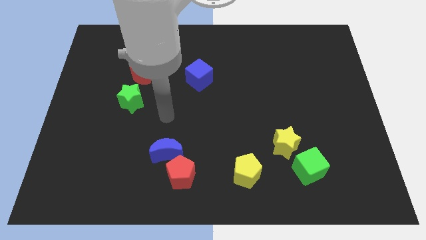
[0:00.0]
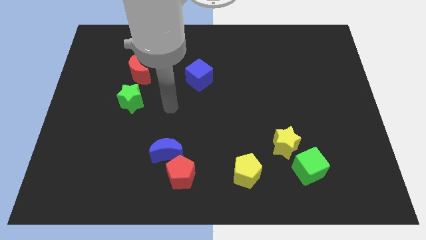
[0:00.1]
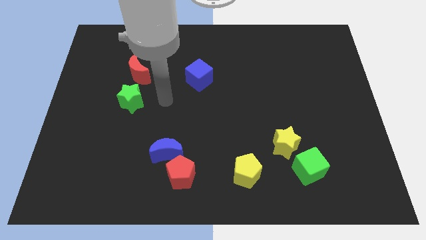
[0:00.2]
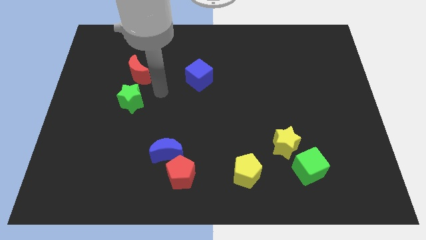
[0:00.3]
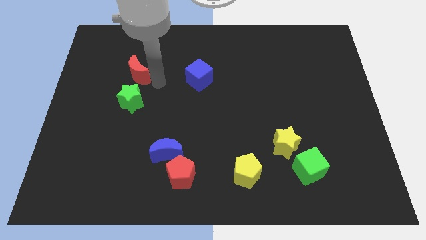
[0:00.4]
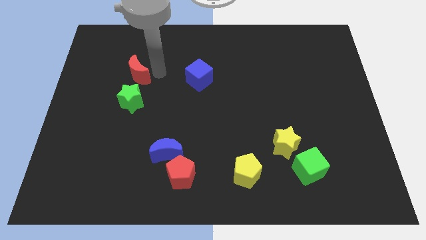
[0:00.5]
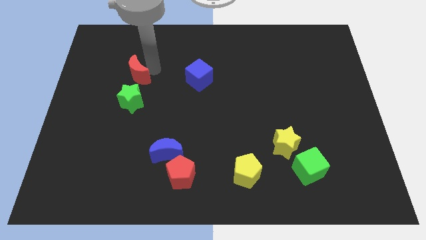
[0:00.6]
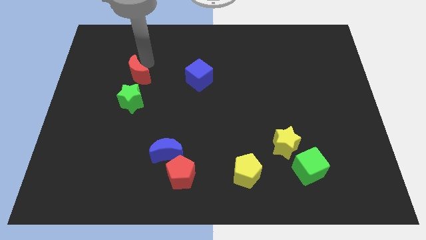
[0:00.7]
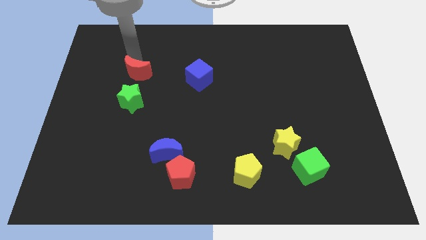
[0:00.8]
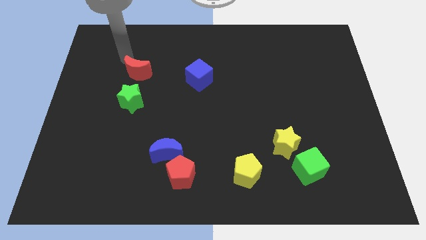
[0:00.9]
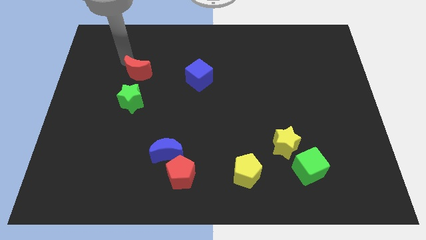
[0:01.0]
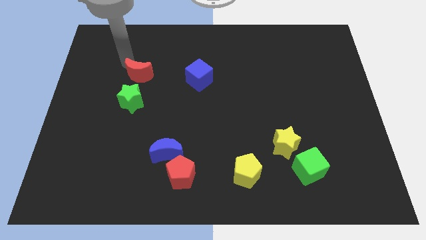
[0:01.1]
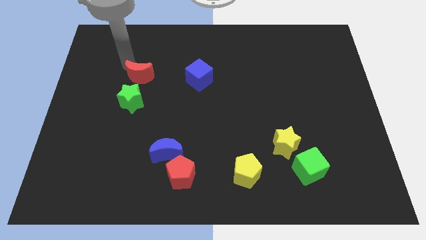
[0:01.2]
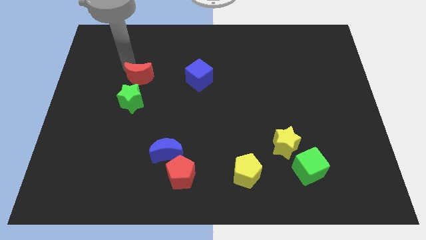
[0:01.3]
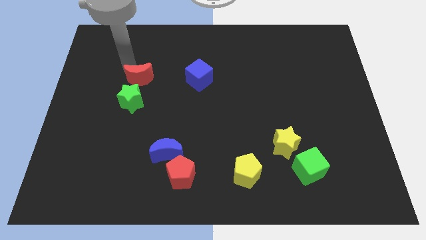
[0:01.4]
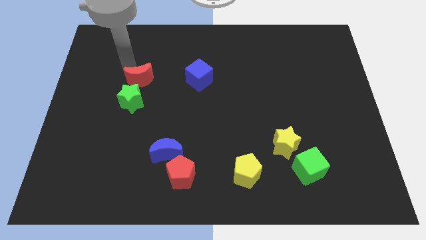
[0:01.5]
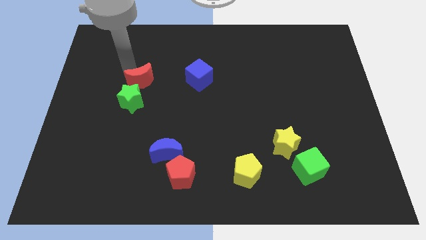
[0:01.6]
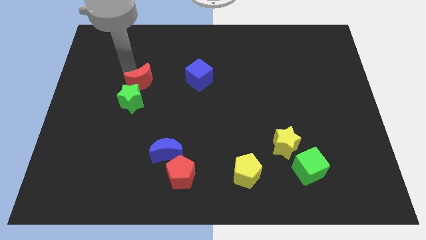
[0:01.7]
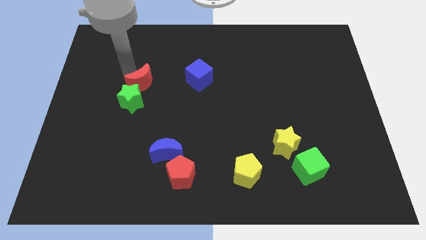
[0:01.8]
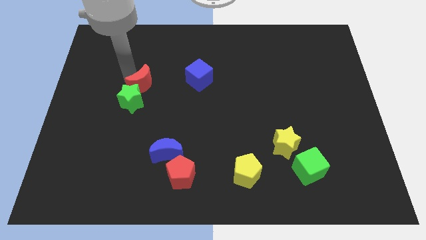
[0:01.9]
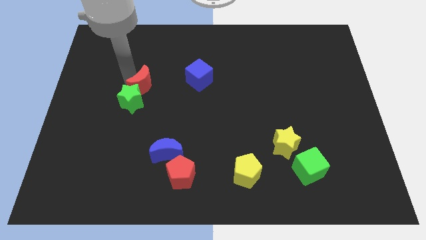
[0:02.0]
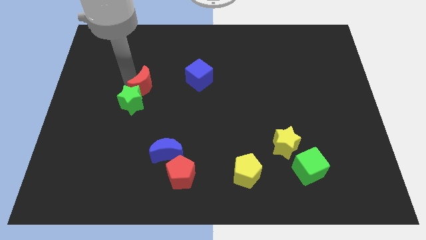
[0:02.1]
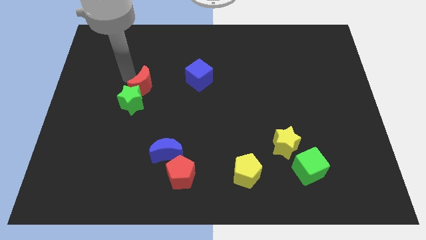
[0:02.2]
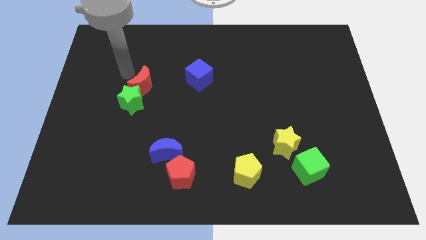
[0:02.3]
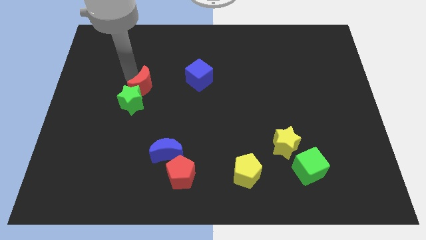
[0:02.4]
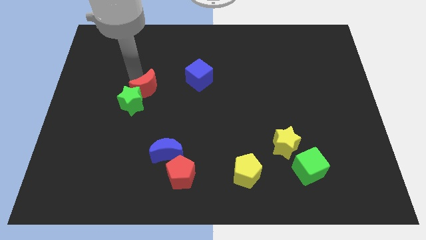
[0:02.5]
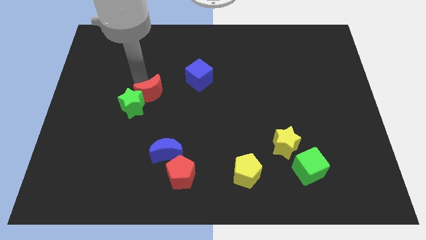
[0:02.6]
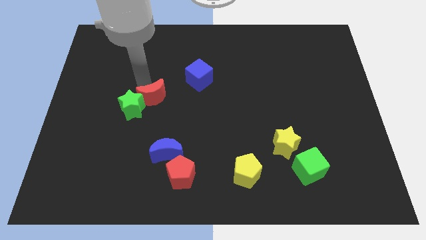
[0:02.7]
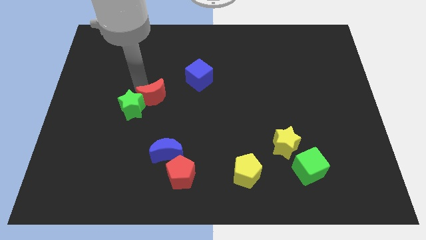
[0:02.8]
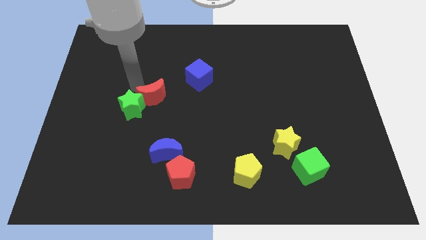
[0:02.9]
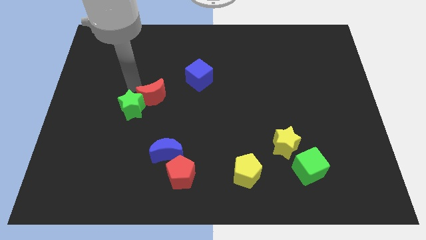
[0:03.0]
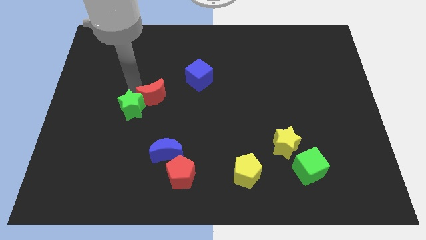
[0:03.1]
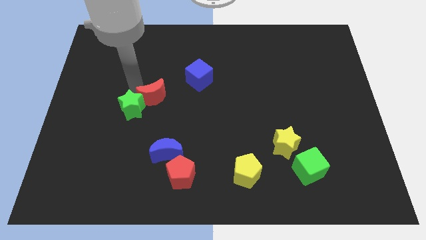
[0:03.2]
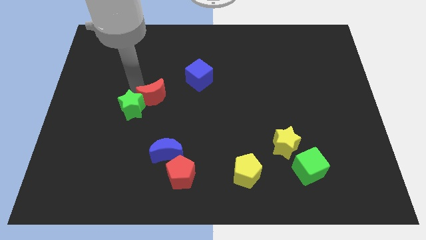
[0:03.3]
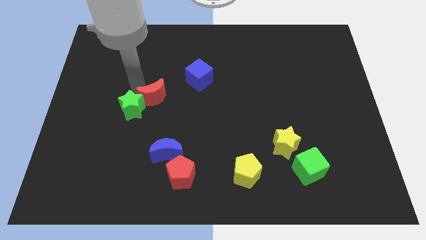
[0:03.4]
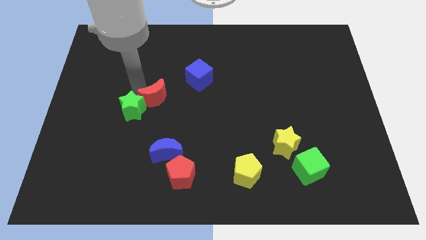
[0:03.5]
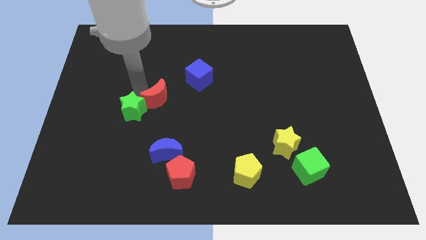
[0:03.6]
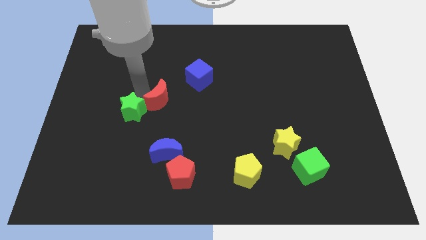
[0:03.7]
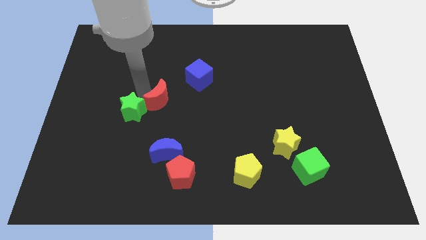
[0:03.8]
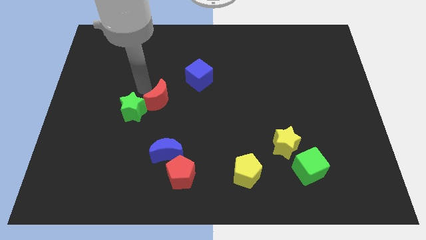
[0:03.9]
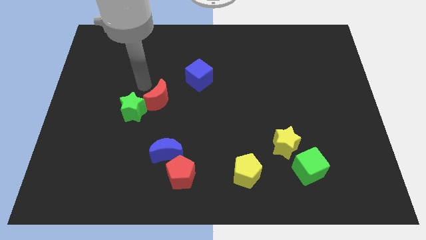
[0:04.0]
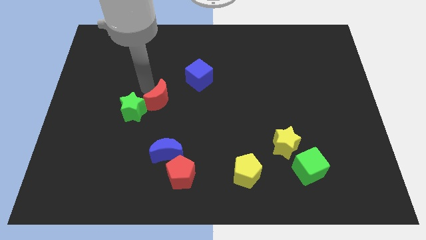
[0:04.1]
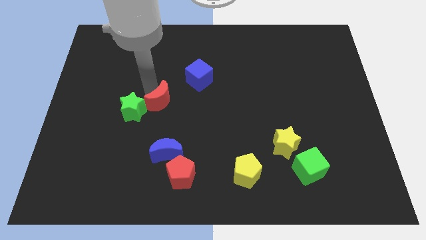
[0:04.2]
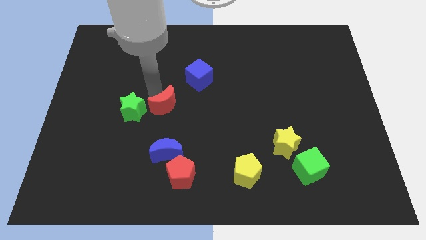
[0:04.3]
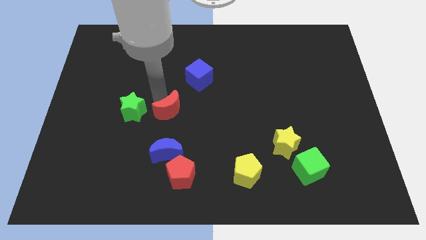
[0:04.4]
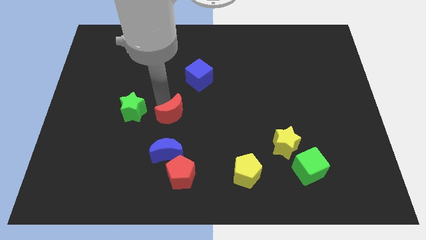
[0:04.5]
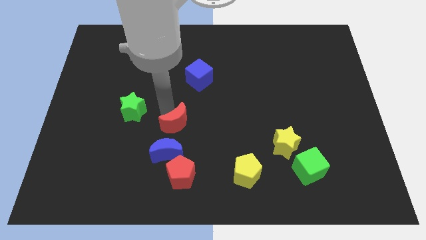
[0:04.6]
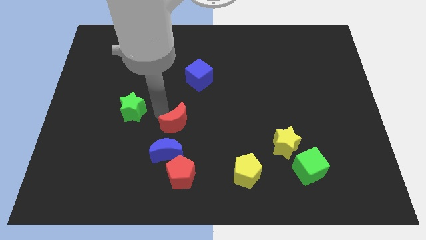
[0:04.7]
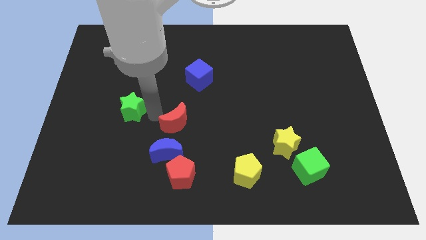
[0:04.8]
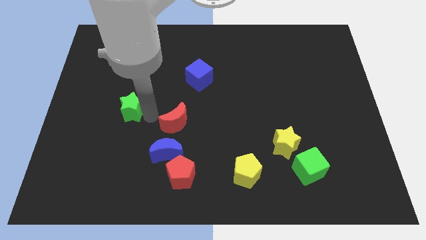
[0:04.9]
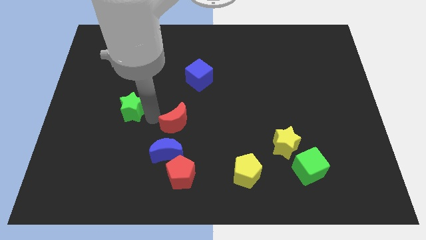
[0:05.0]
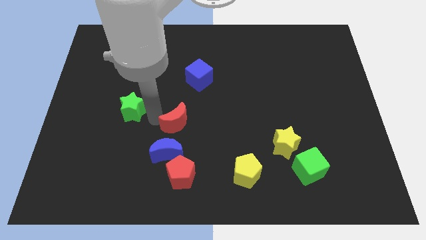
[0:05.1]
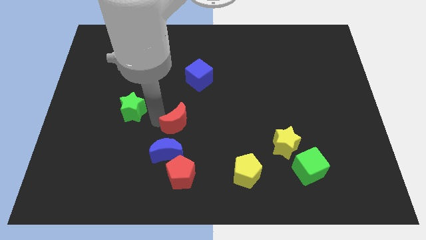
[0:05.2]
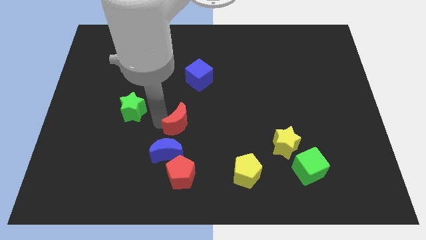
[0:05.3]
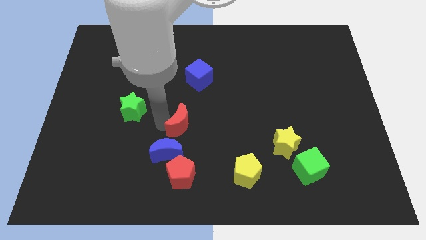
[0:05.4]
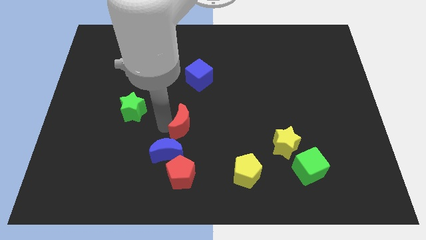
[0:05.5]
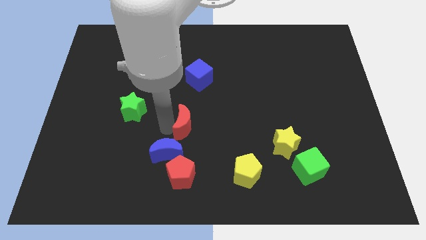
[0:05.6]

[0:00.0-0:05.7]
push the red moon diagonally down and right

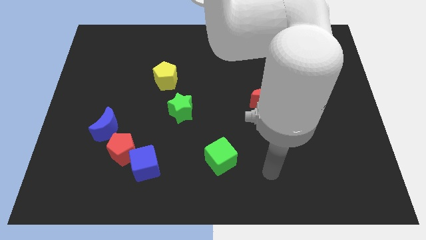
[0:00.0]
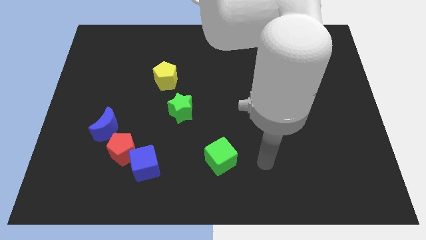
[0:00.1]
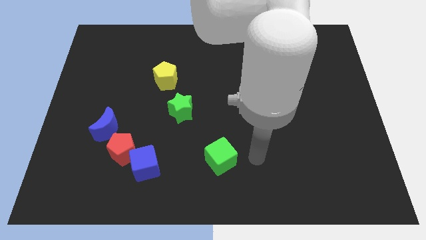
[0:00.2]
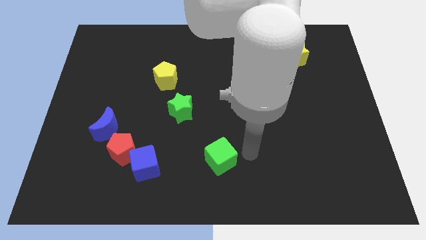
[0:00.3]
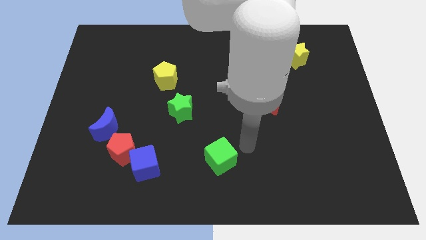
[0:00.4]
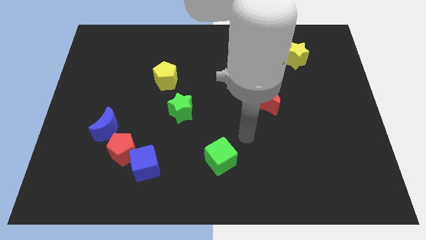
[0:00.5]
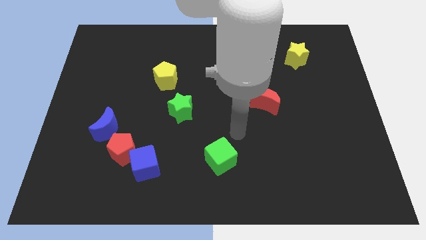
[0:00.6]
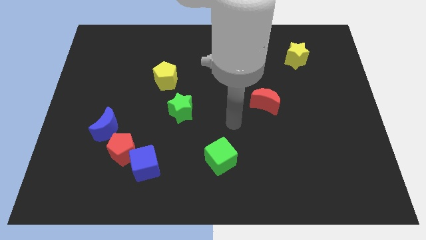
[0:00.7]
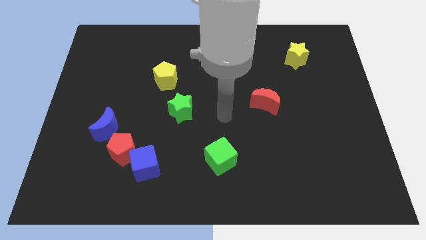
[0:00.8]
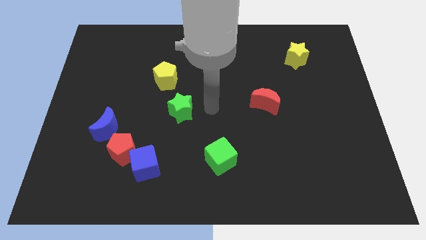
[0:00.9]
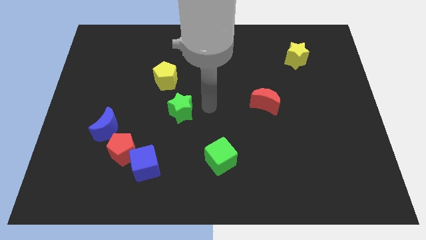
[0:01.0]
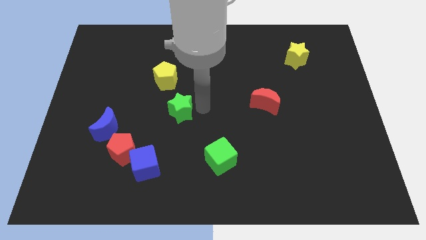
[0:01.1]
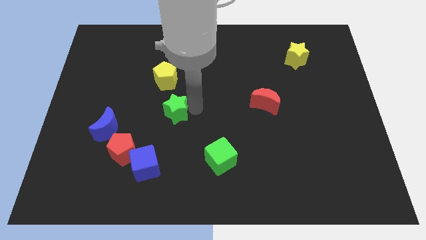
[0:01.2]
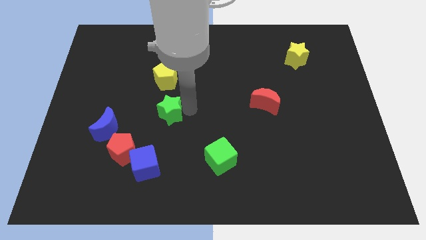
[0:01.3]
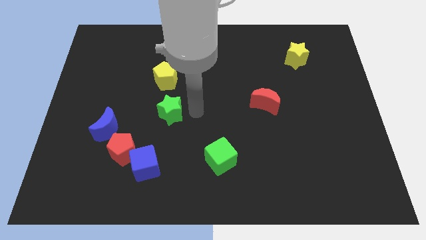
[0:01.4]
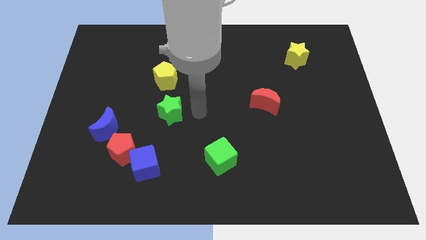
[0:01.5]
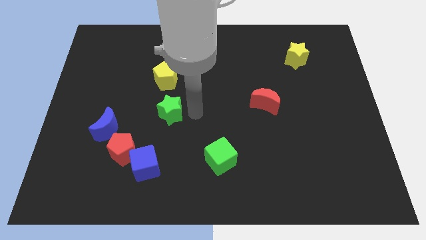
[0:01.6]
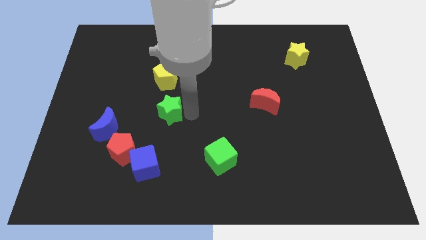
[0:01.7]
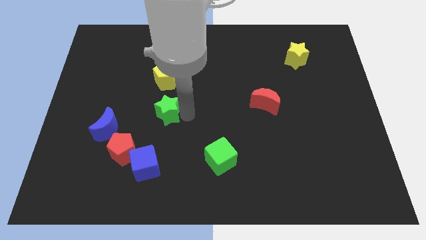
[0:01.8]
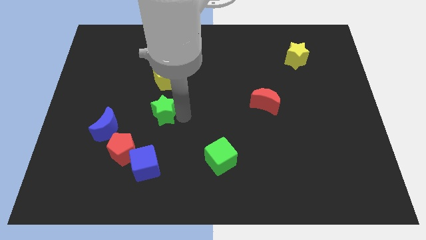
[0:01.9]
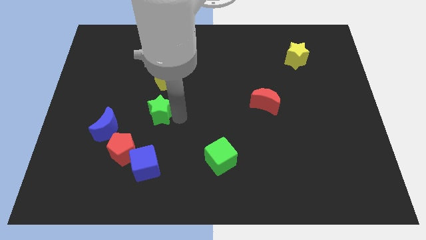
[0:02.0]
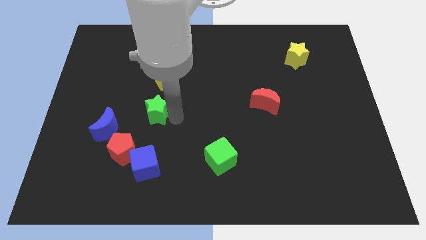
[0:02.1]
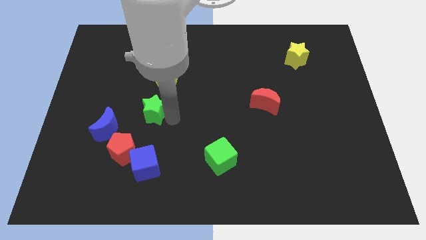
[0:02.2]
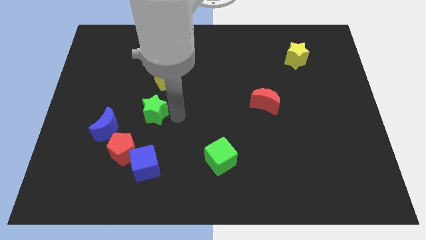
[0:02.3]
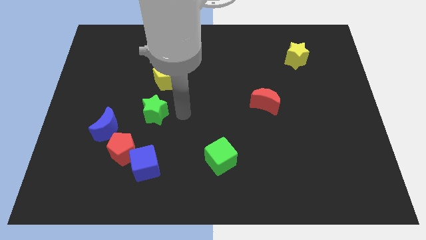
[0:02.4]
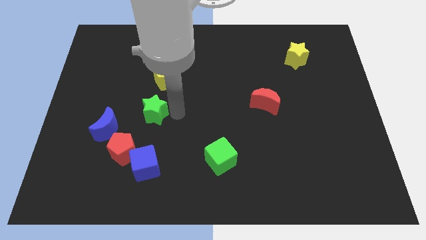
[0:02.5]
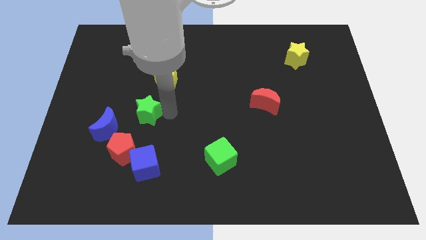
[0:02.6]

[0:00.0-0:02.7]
slightly push the green star left
